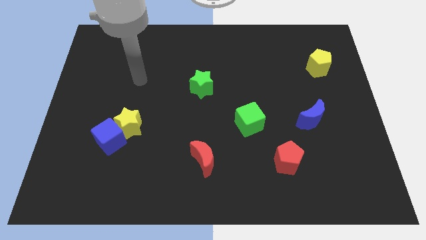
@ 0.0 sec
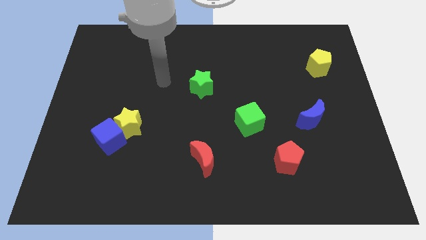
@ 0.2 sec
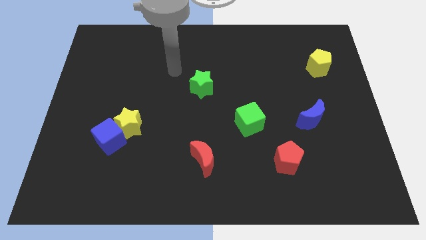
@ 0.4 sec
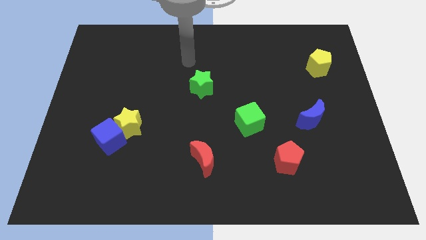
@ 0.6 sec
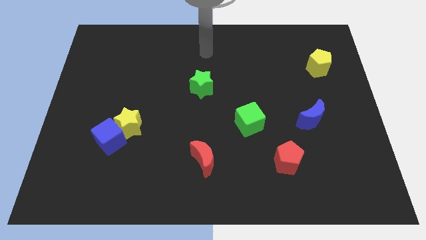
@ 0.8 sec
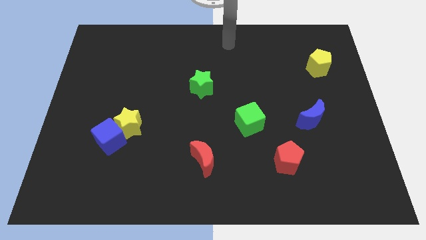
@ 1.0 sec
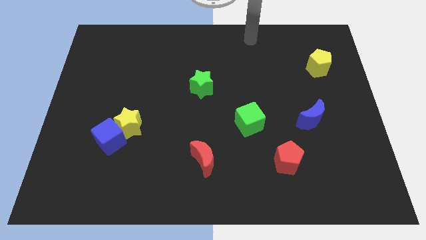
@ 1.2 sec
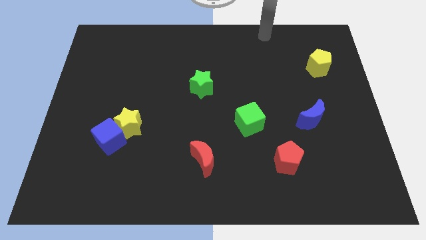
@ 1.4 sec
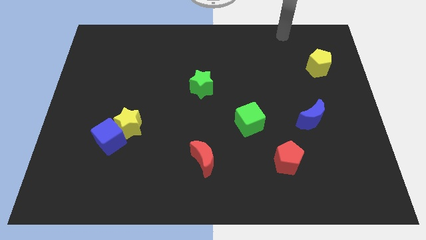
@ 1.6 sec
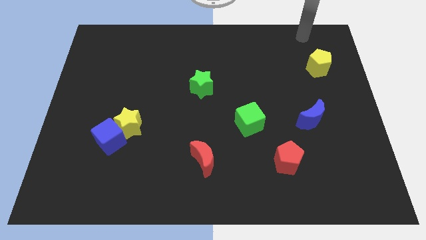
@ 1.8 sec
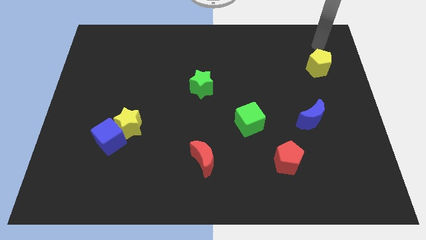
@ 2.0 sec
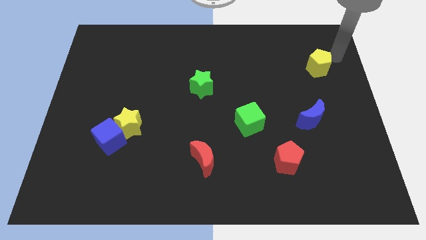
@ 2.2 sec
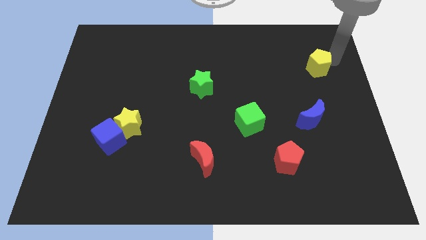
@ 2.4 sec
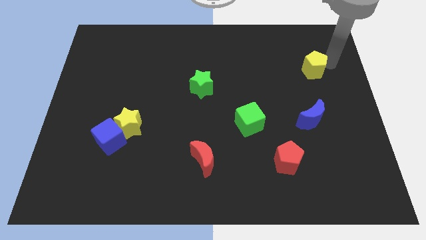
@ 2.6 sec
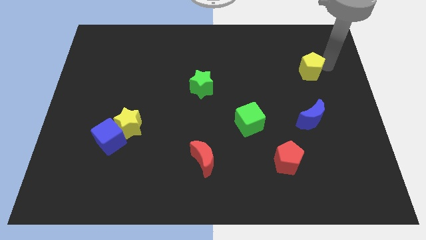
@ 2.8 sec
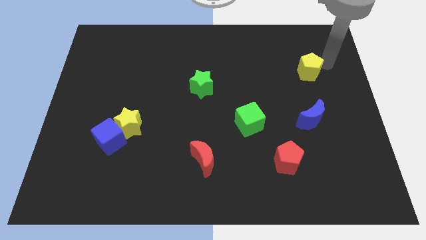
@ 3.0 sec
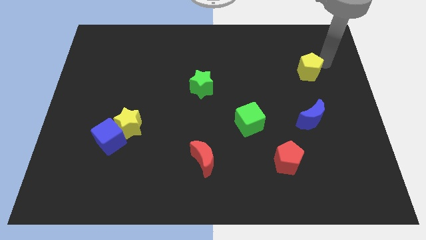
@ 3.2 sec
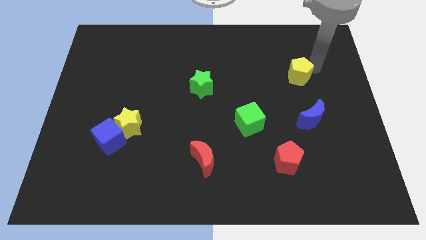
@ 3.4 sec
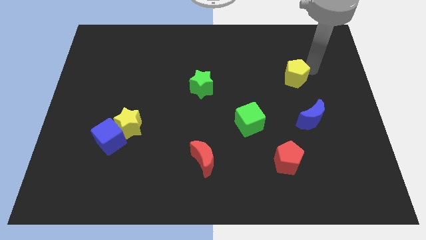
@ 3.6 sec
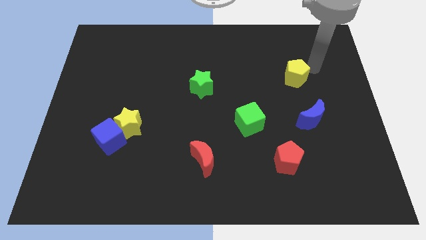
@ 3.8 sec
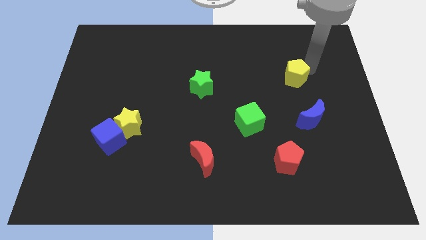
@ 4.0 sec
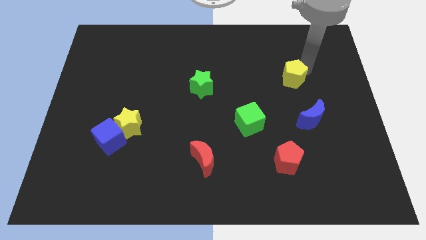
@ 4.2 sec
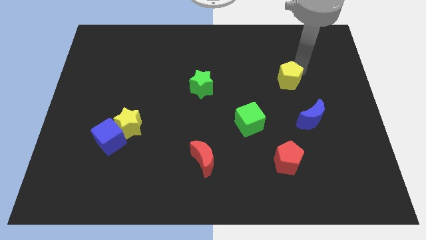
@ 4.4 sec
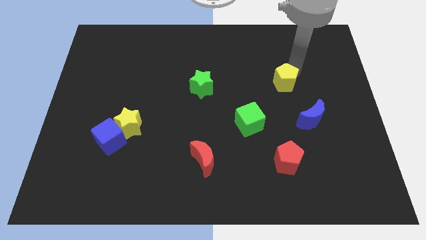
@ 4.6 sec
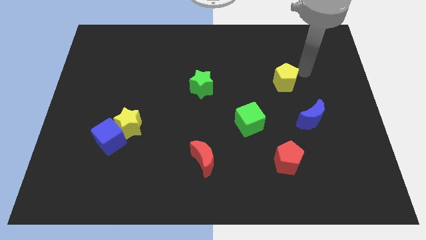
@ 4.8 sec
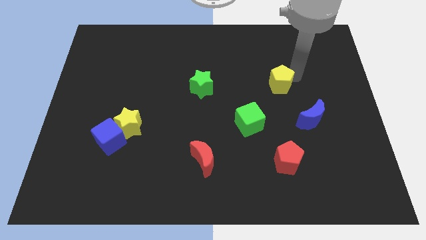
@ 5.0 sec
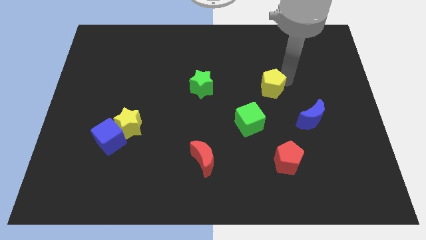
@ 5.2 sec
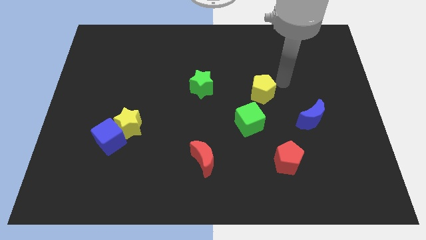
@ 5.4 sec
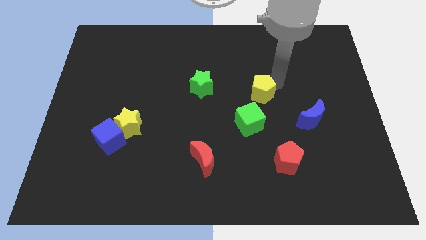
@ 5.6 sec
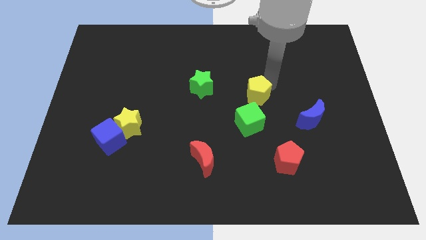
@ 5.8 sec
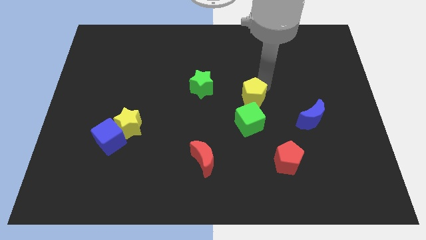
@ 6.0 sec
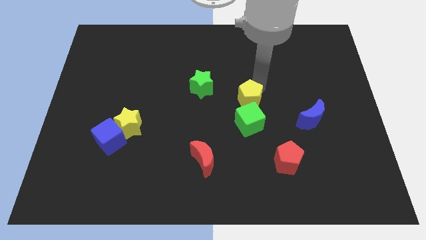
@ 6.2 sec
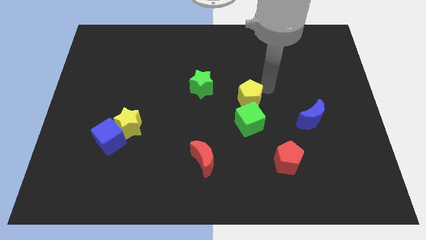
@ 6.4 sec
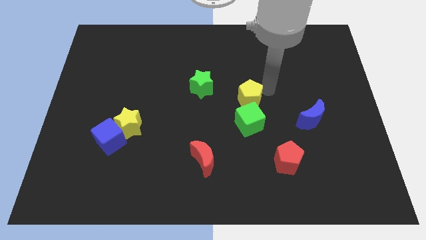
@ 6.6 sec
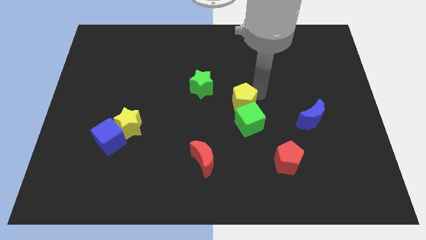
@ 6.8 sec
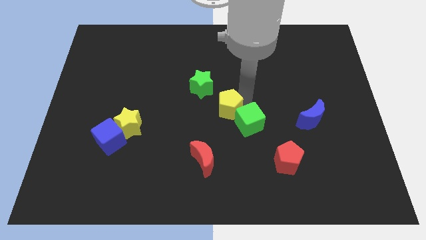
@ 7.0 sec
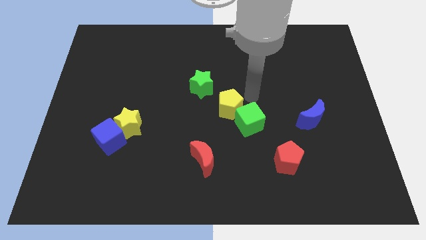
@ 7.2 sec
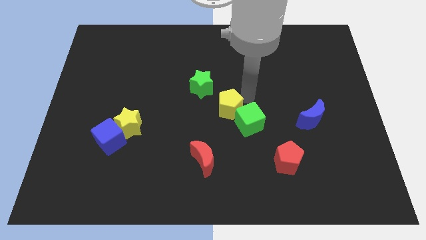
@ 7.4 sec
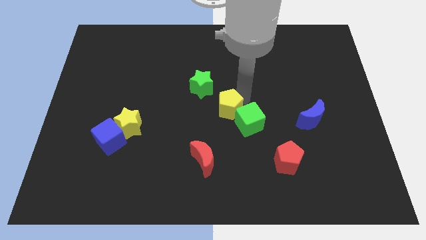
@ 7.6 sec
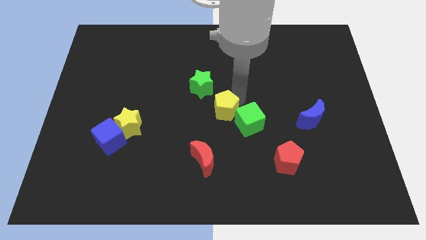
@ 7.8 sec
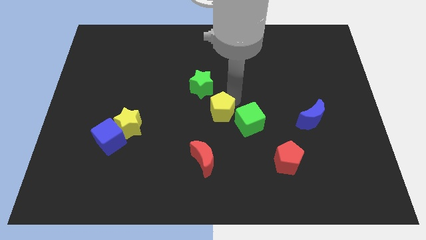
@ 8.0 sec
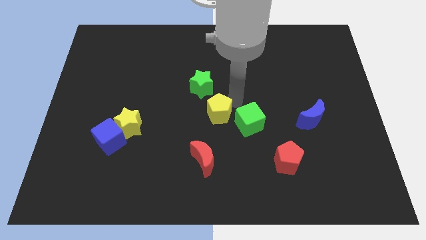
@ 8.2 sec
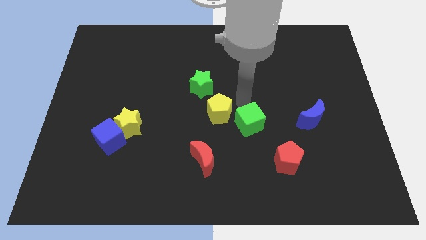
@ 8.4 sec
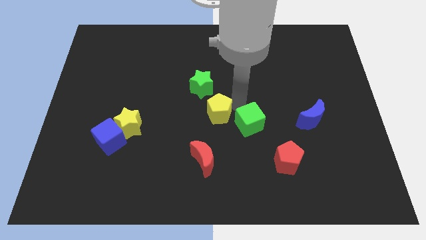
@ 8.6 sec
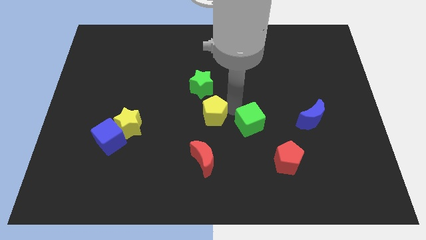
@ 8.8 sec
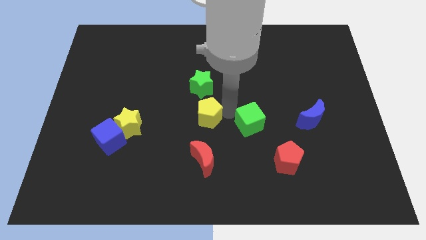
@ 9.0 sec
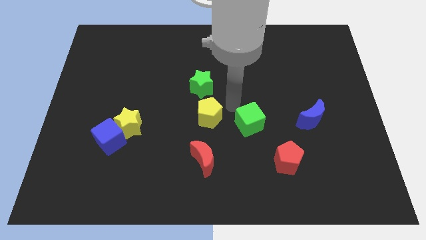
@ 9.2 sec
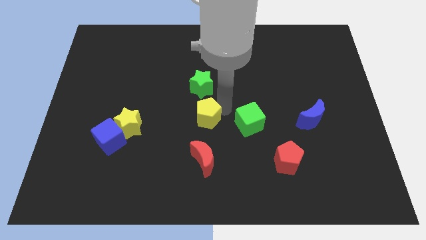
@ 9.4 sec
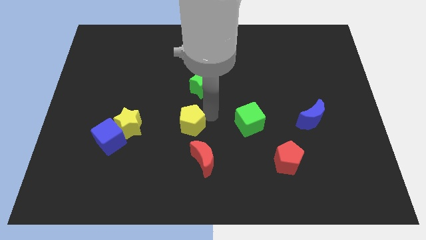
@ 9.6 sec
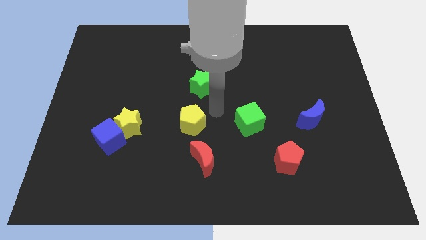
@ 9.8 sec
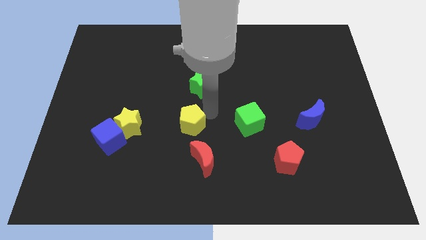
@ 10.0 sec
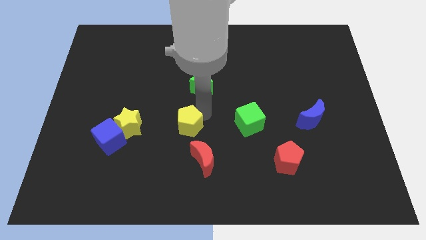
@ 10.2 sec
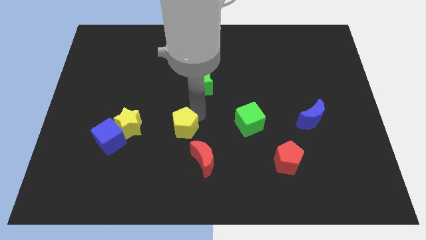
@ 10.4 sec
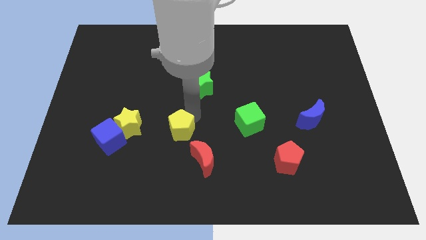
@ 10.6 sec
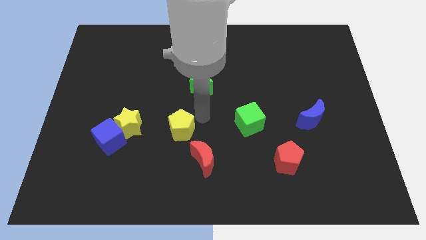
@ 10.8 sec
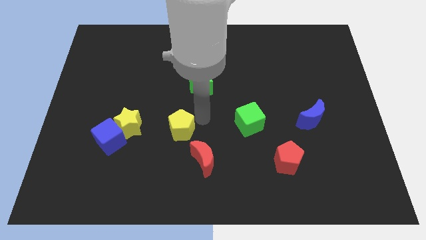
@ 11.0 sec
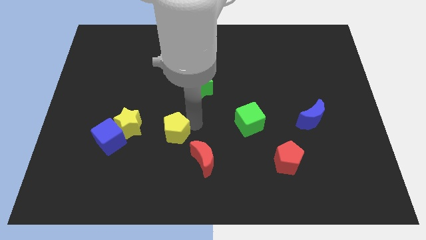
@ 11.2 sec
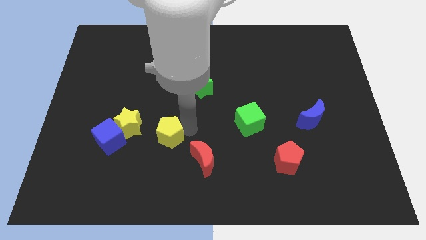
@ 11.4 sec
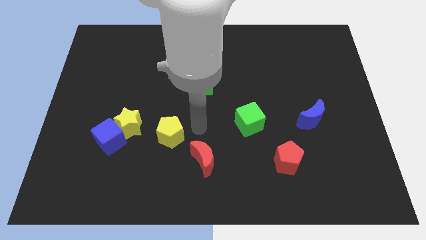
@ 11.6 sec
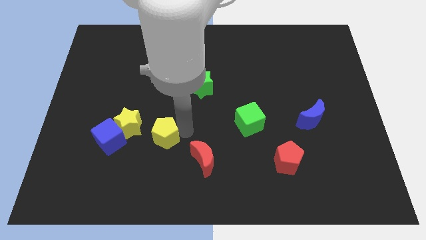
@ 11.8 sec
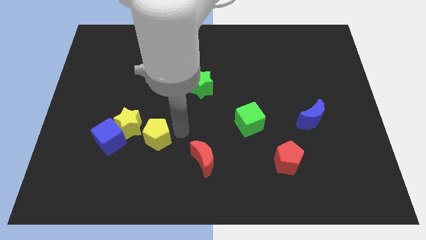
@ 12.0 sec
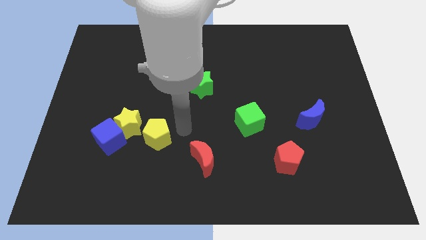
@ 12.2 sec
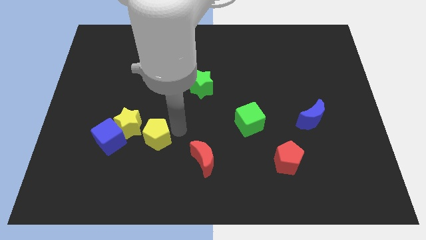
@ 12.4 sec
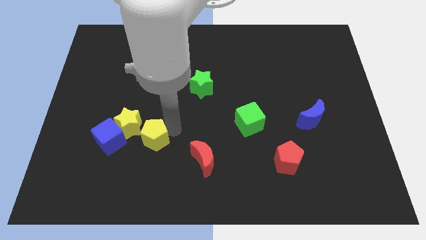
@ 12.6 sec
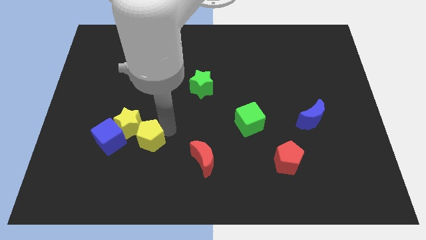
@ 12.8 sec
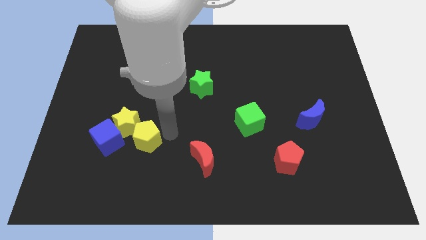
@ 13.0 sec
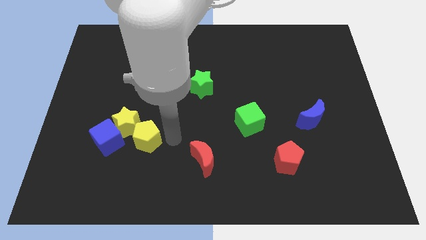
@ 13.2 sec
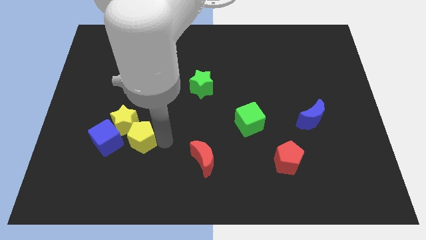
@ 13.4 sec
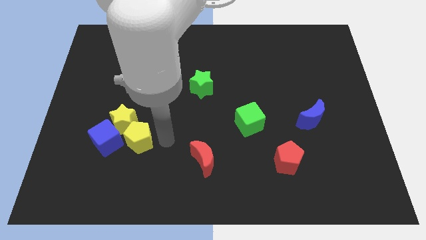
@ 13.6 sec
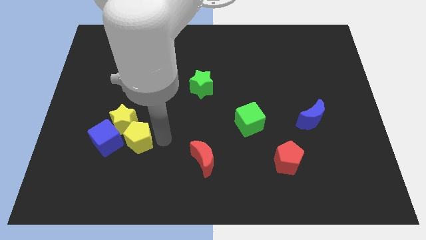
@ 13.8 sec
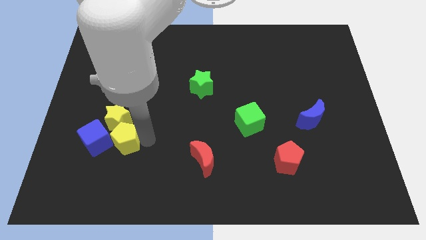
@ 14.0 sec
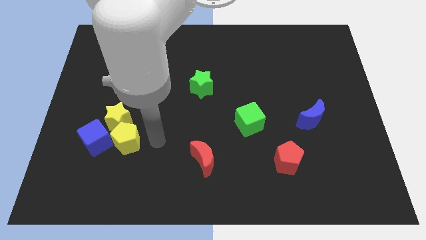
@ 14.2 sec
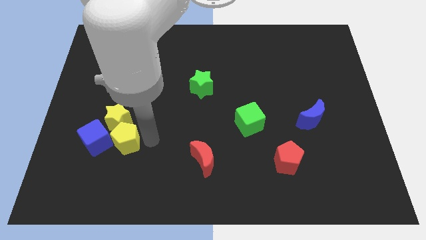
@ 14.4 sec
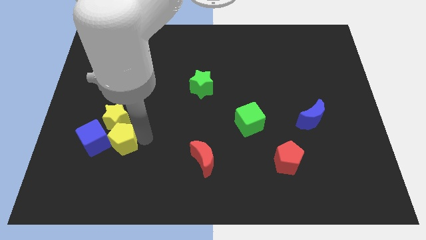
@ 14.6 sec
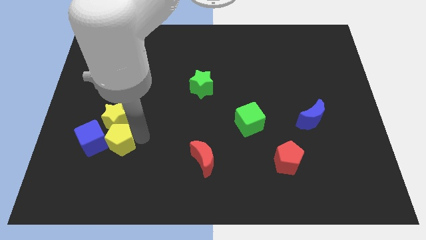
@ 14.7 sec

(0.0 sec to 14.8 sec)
push the yellow pentagon close to the blue cube
